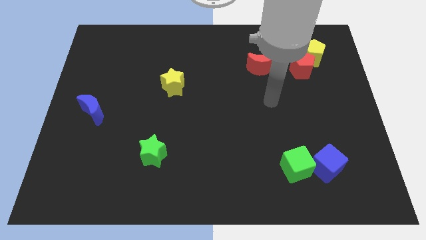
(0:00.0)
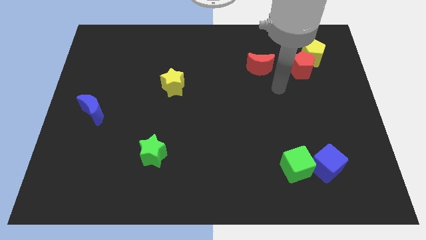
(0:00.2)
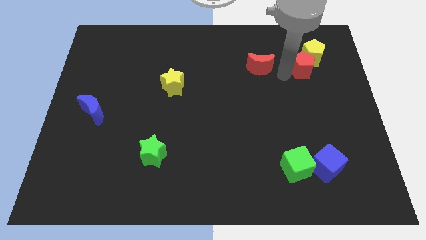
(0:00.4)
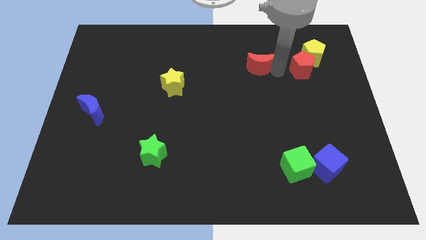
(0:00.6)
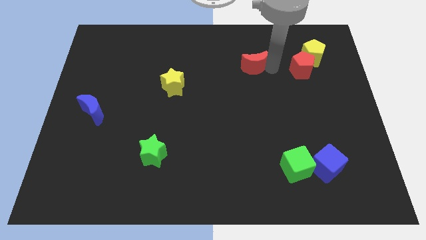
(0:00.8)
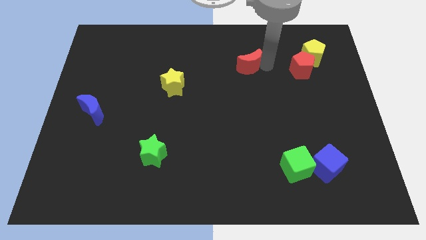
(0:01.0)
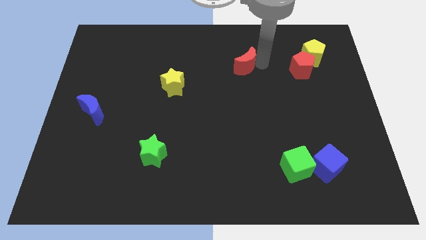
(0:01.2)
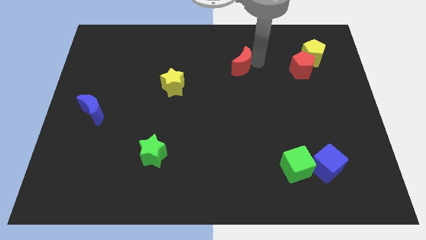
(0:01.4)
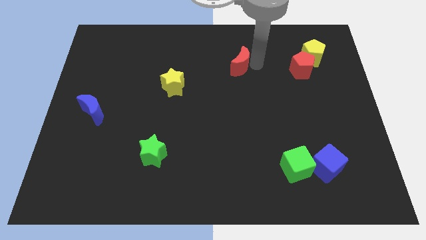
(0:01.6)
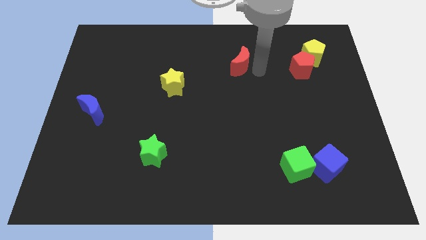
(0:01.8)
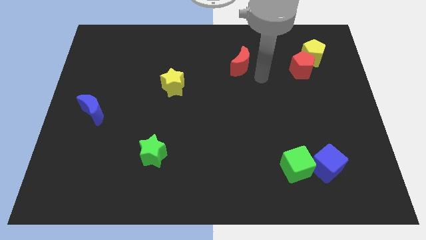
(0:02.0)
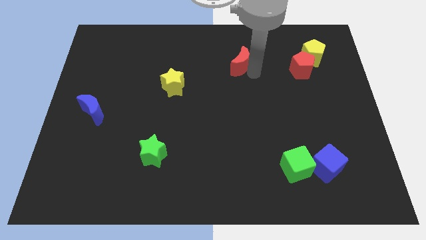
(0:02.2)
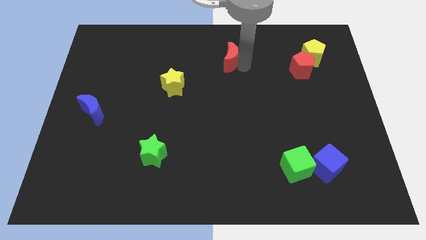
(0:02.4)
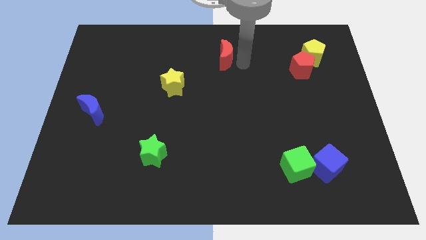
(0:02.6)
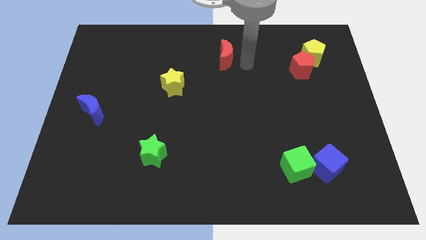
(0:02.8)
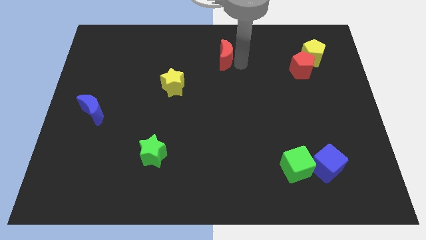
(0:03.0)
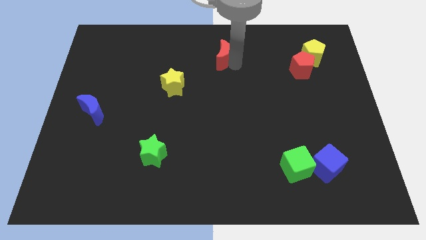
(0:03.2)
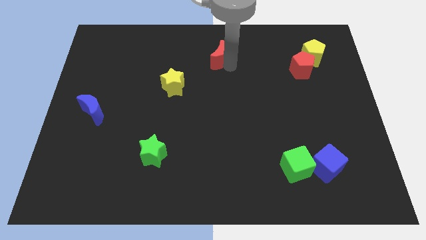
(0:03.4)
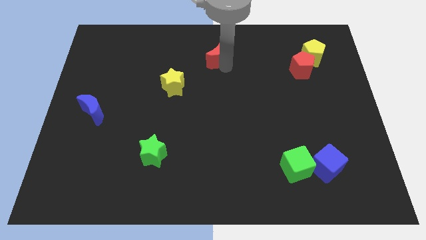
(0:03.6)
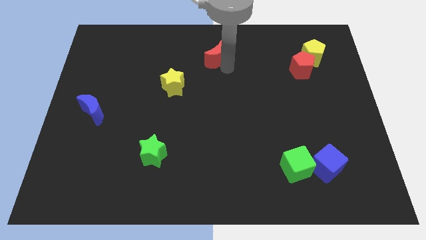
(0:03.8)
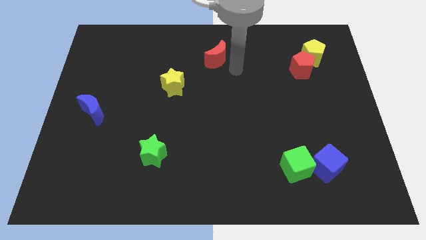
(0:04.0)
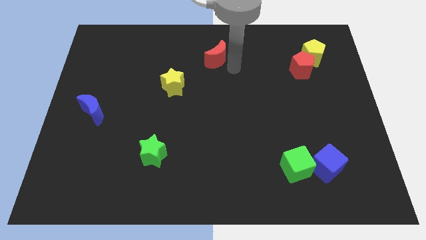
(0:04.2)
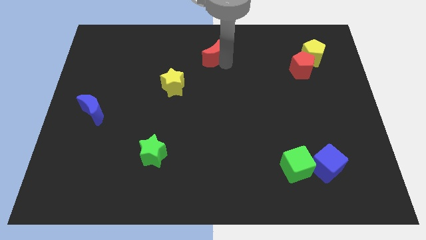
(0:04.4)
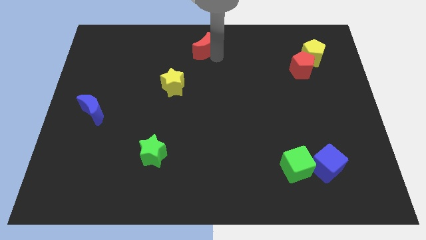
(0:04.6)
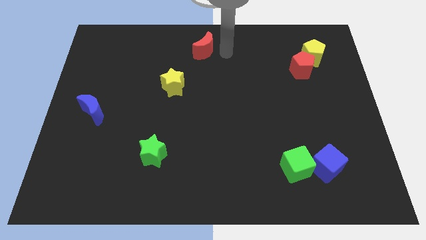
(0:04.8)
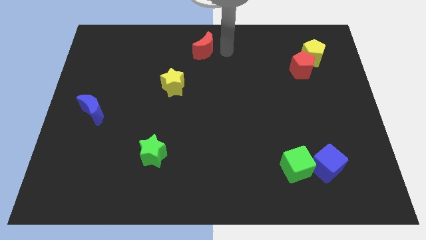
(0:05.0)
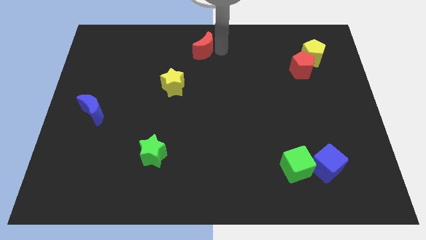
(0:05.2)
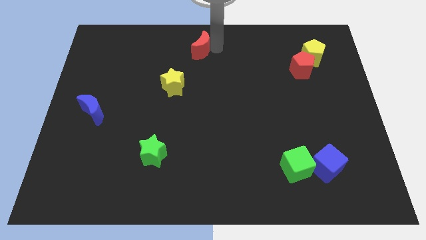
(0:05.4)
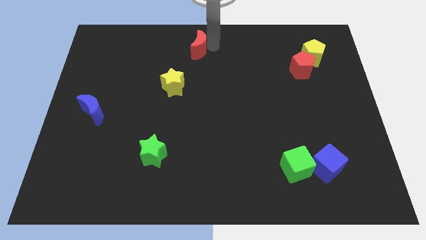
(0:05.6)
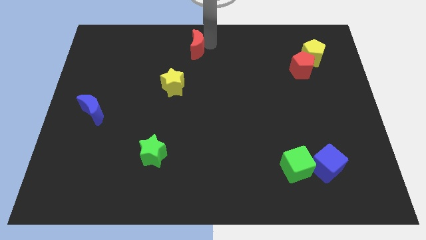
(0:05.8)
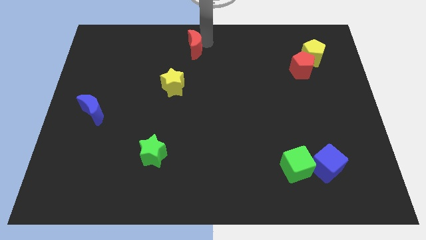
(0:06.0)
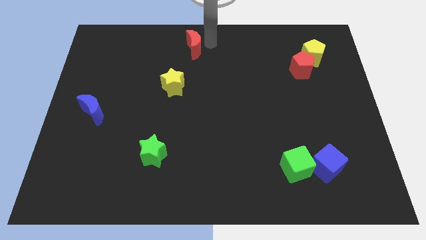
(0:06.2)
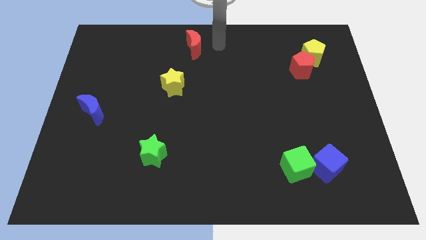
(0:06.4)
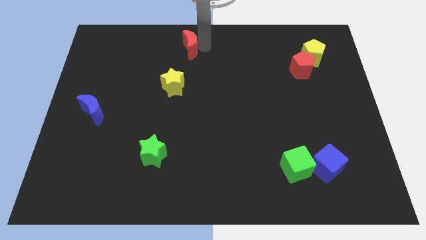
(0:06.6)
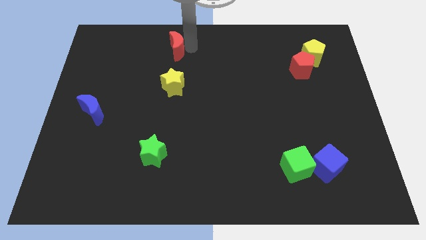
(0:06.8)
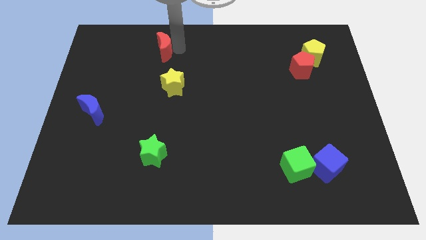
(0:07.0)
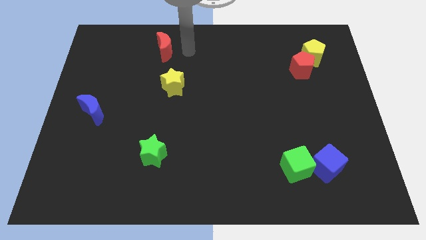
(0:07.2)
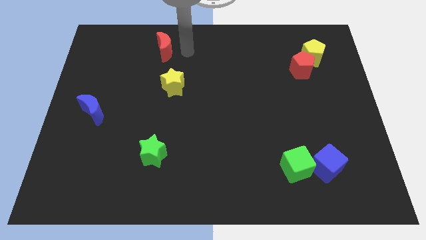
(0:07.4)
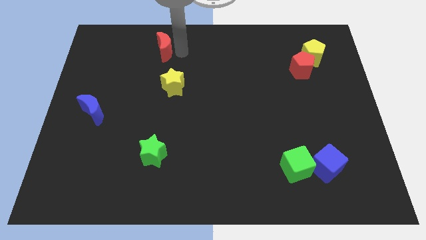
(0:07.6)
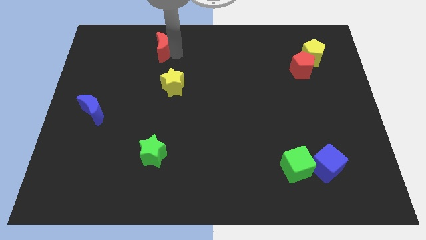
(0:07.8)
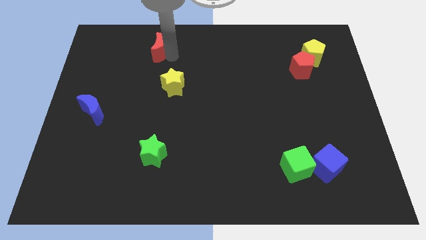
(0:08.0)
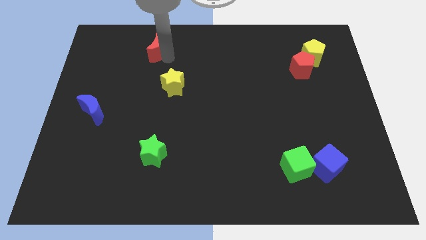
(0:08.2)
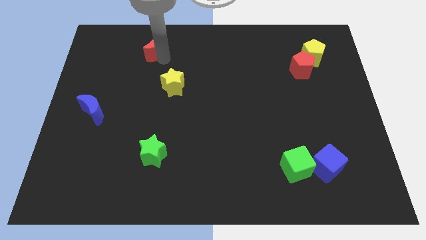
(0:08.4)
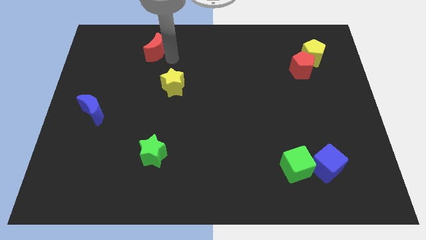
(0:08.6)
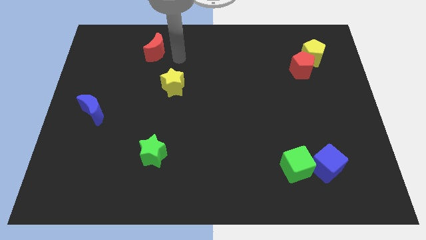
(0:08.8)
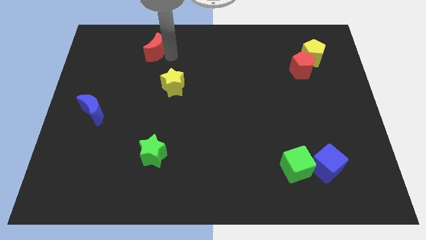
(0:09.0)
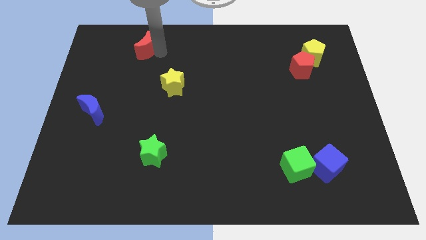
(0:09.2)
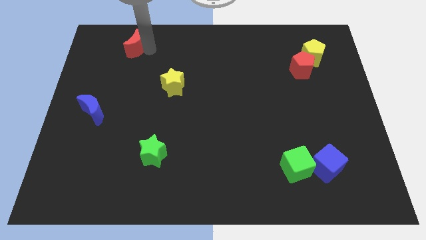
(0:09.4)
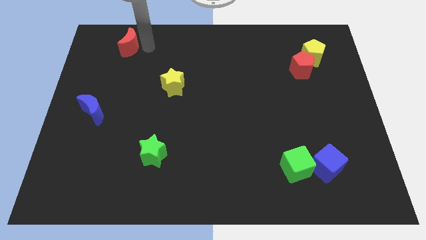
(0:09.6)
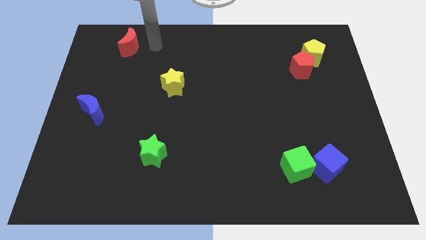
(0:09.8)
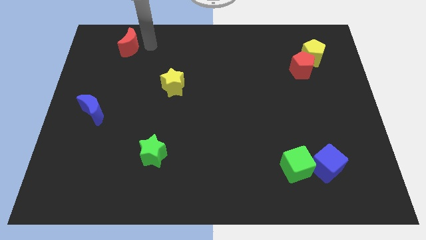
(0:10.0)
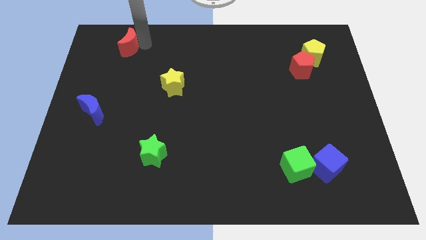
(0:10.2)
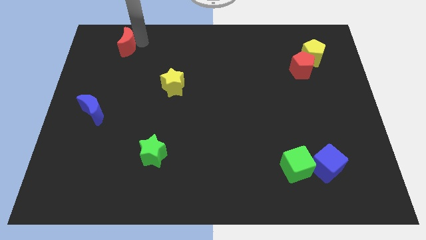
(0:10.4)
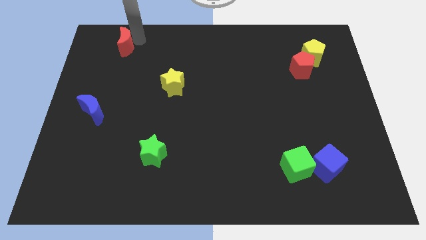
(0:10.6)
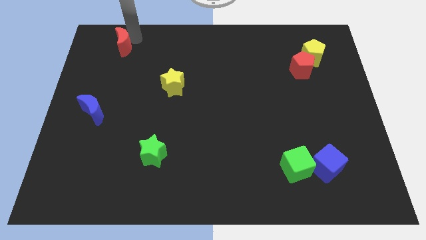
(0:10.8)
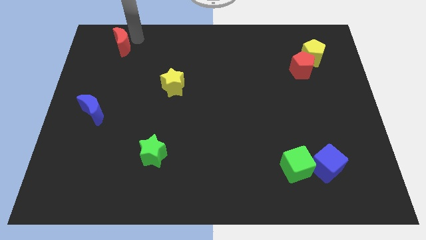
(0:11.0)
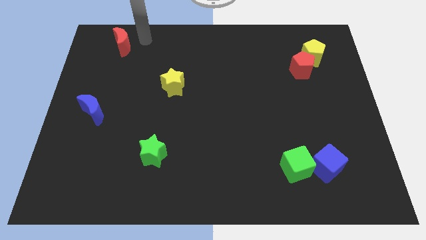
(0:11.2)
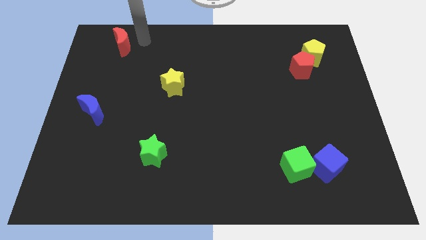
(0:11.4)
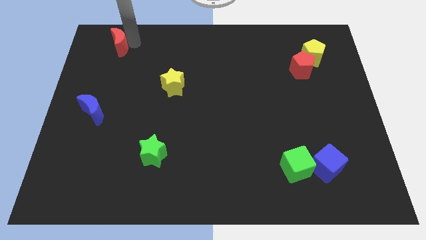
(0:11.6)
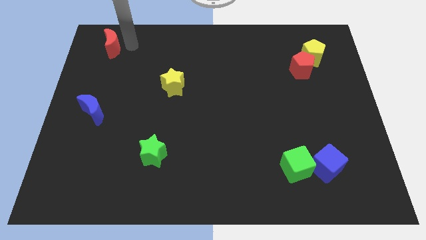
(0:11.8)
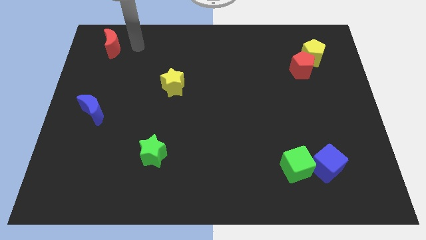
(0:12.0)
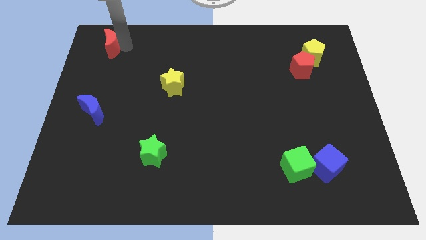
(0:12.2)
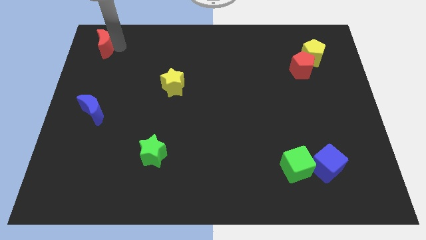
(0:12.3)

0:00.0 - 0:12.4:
slide the red moon to the top left corner
